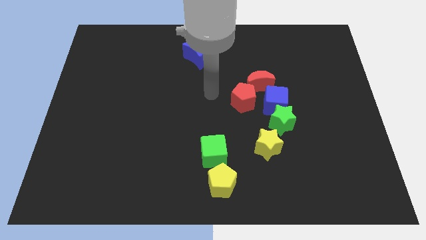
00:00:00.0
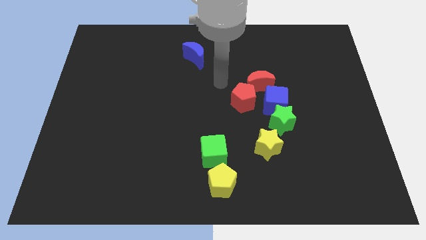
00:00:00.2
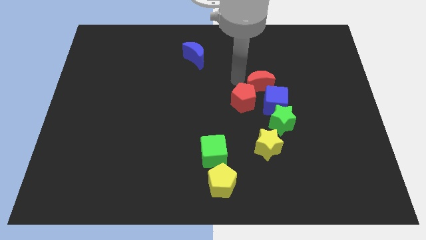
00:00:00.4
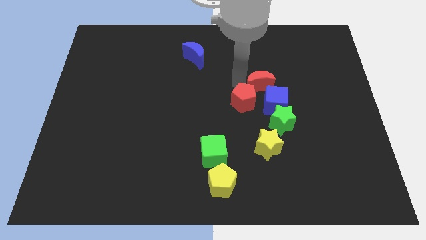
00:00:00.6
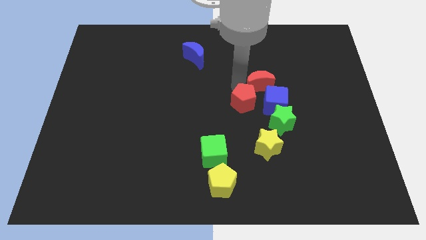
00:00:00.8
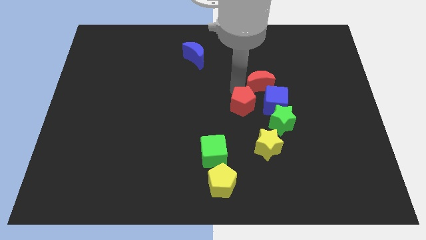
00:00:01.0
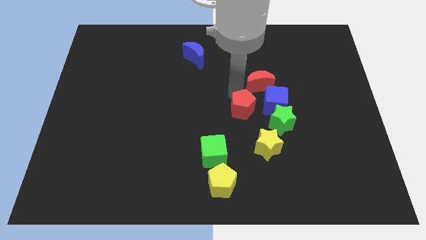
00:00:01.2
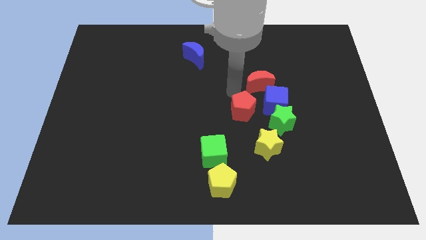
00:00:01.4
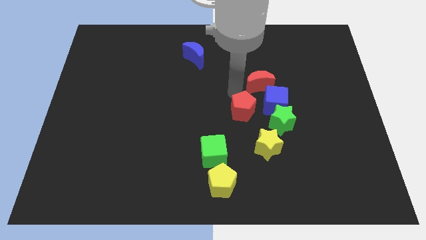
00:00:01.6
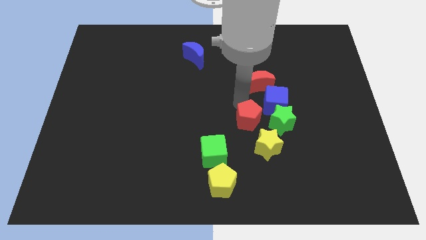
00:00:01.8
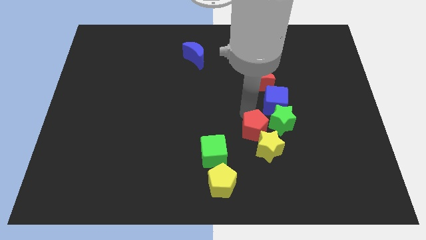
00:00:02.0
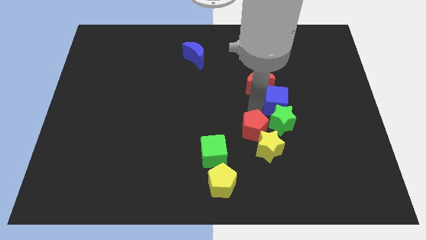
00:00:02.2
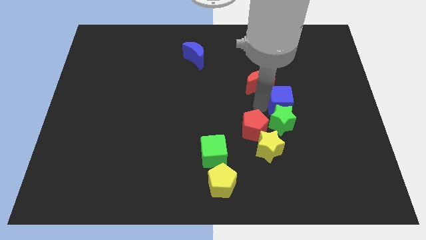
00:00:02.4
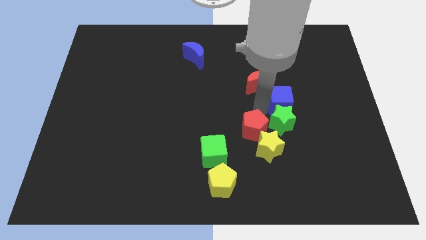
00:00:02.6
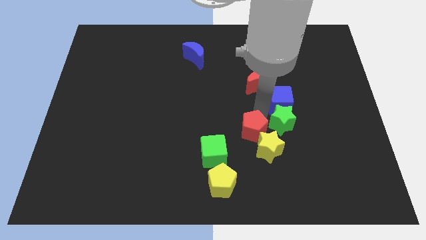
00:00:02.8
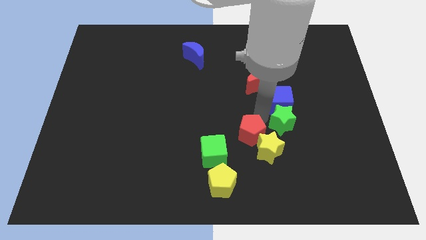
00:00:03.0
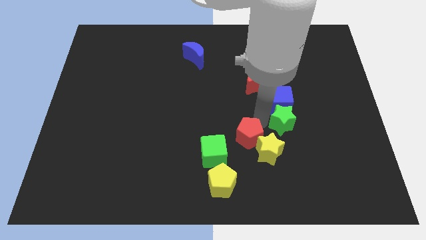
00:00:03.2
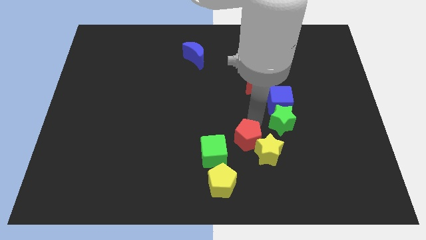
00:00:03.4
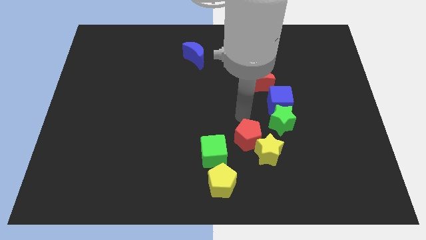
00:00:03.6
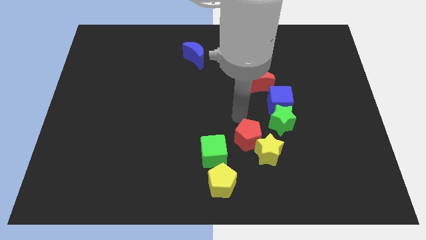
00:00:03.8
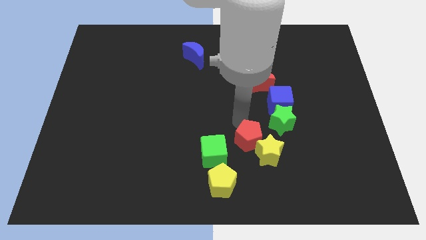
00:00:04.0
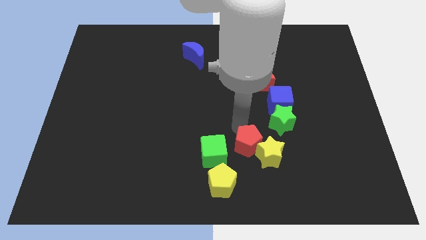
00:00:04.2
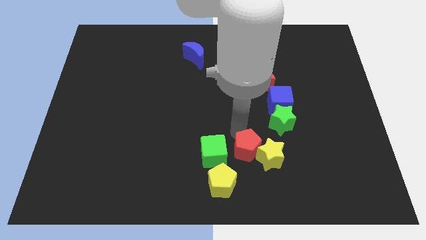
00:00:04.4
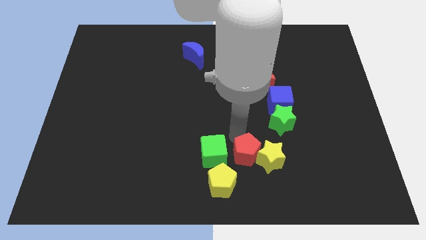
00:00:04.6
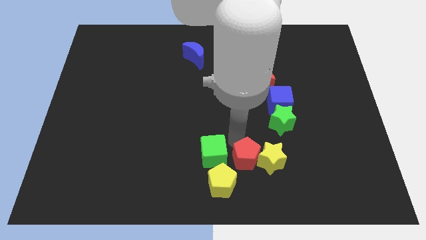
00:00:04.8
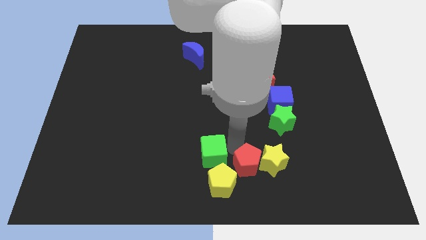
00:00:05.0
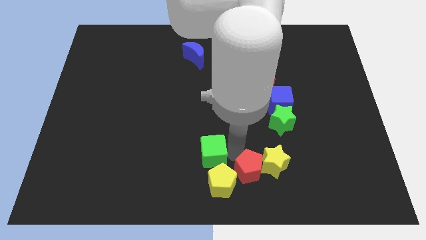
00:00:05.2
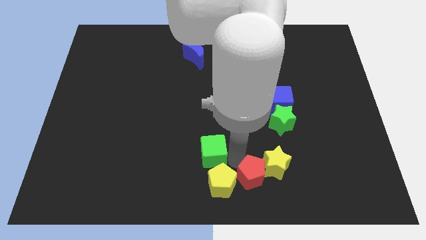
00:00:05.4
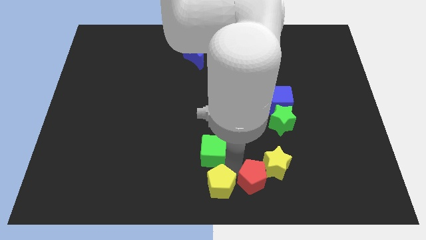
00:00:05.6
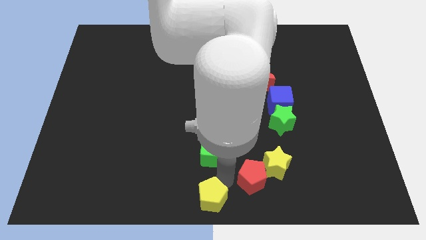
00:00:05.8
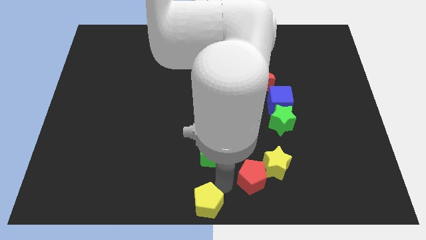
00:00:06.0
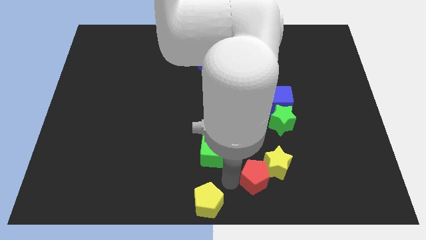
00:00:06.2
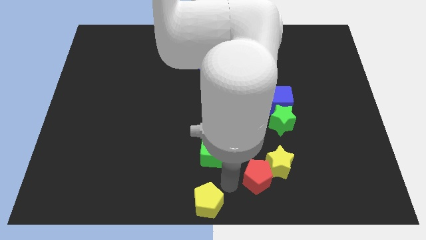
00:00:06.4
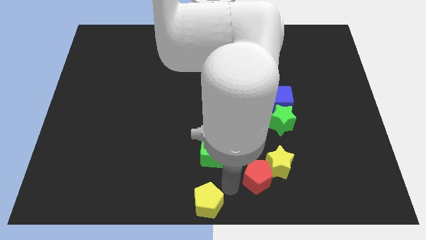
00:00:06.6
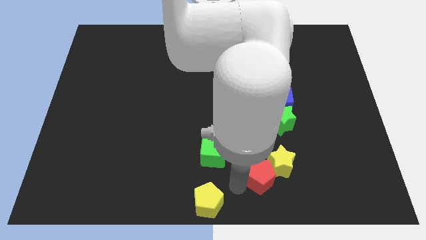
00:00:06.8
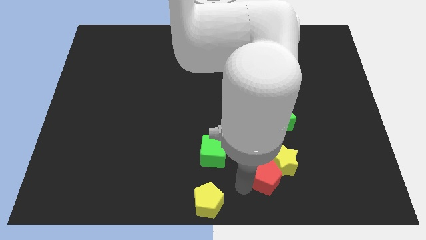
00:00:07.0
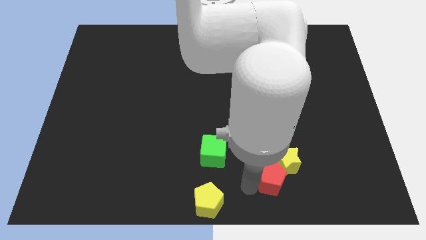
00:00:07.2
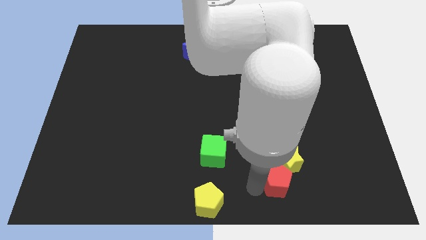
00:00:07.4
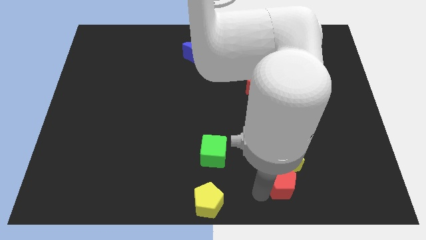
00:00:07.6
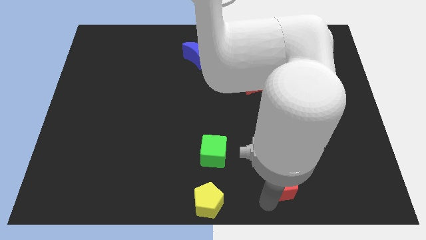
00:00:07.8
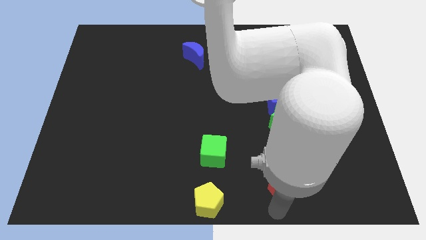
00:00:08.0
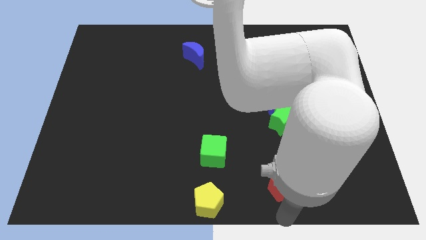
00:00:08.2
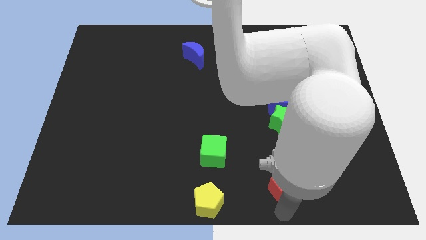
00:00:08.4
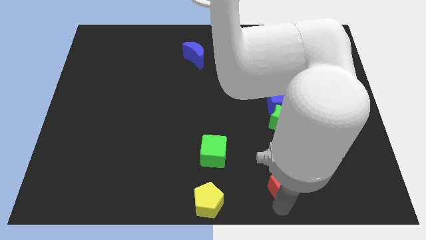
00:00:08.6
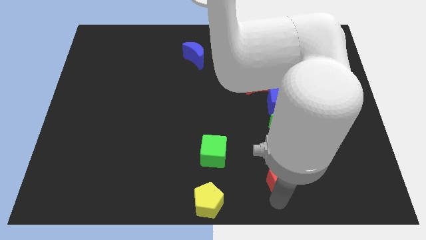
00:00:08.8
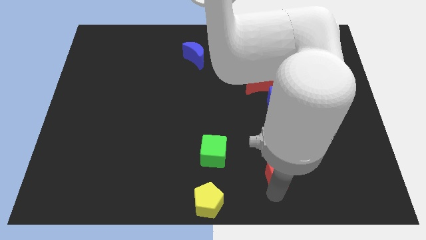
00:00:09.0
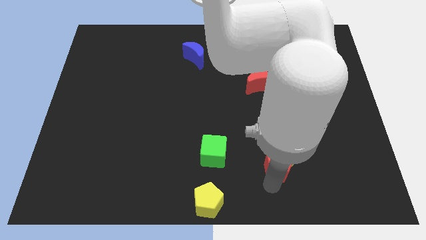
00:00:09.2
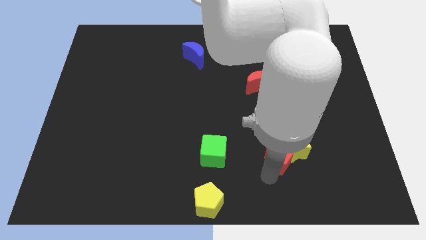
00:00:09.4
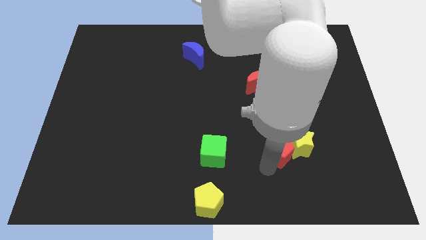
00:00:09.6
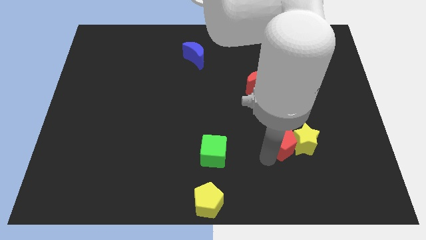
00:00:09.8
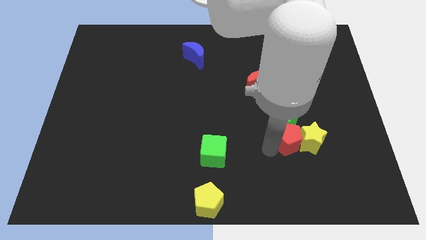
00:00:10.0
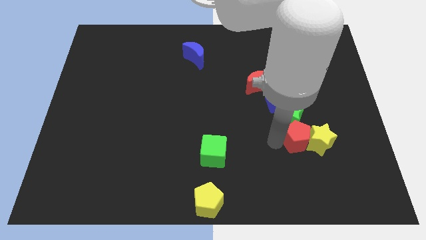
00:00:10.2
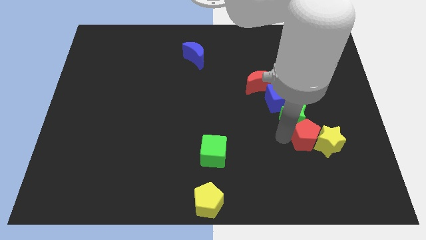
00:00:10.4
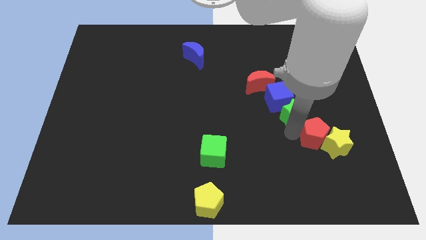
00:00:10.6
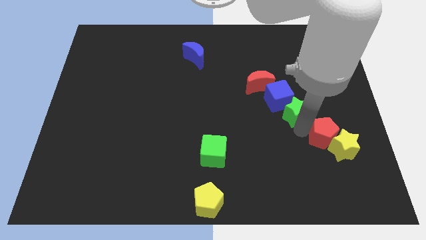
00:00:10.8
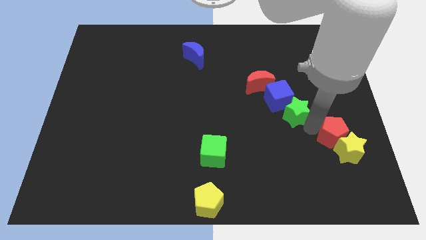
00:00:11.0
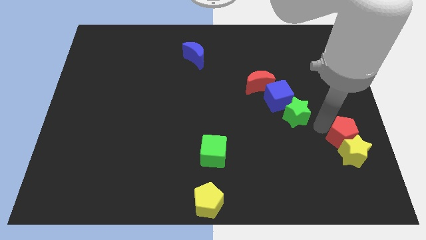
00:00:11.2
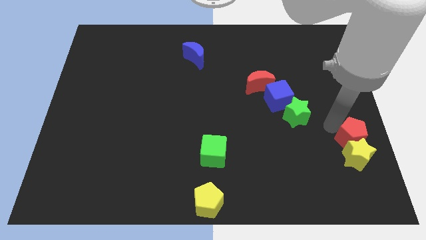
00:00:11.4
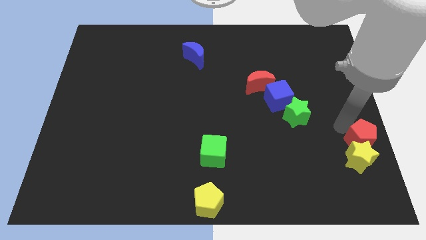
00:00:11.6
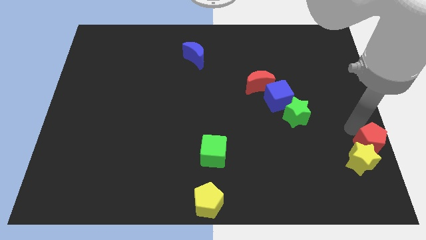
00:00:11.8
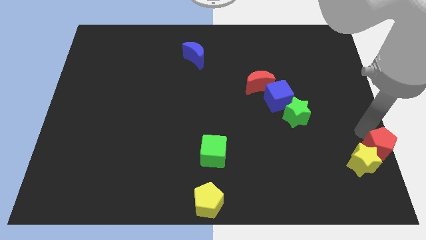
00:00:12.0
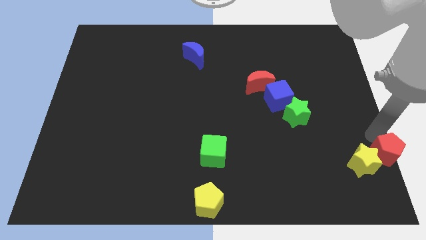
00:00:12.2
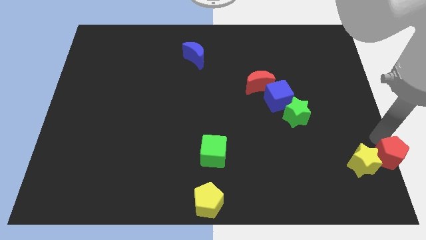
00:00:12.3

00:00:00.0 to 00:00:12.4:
move the red pentagon to the lower right corner
